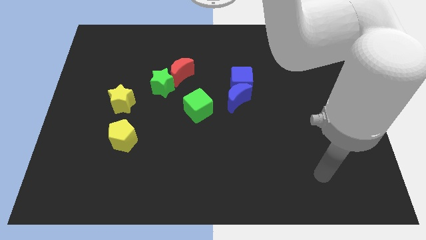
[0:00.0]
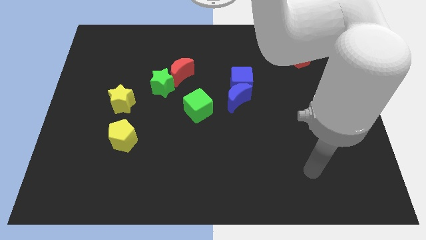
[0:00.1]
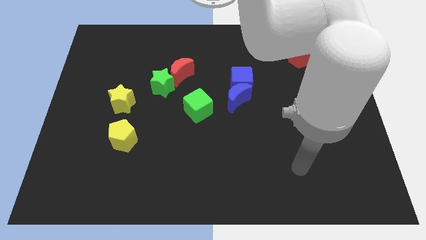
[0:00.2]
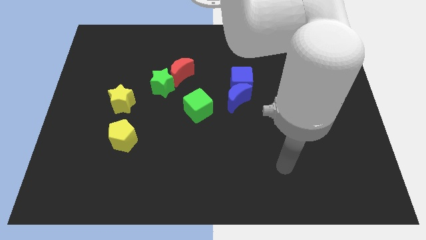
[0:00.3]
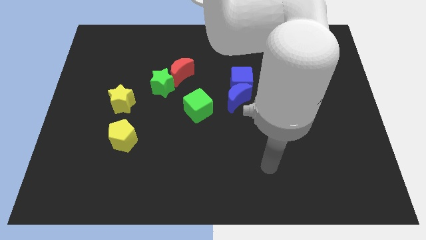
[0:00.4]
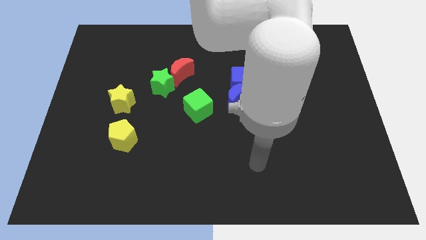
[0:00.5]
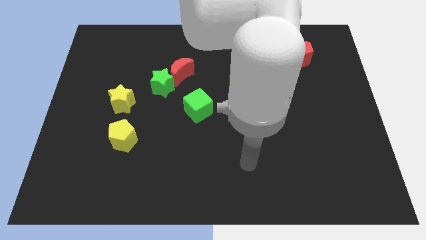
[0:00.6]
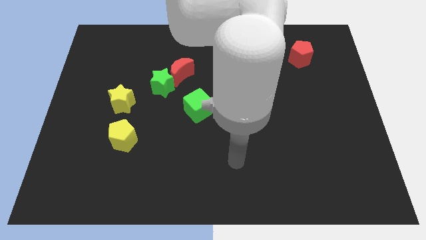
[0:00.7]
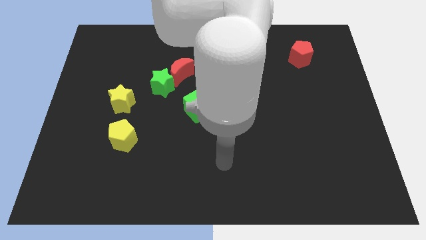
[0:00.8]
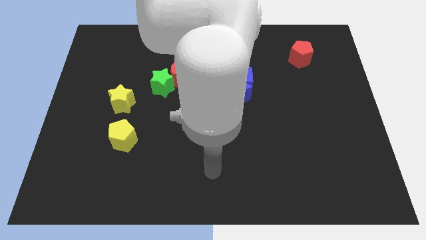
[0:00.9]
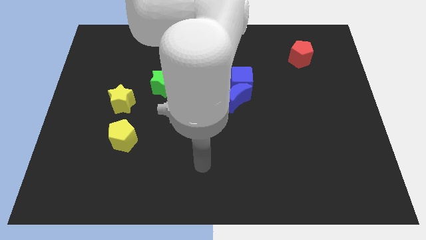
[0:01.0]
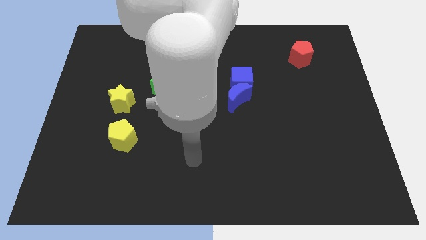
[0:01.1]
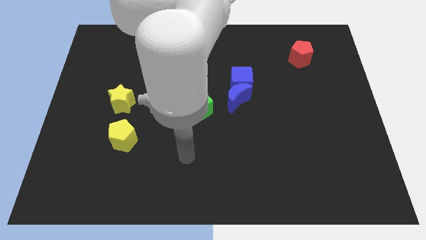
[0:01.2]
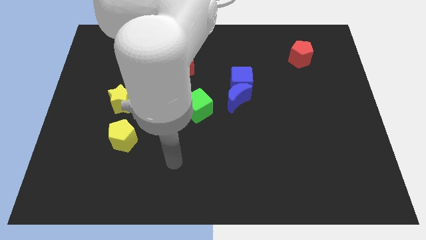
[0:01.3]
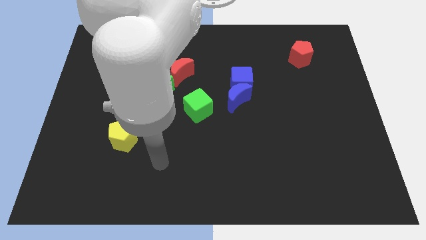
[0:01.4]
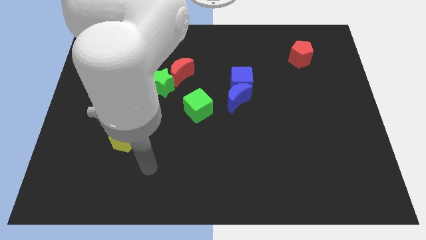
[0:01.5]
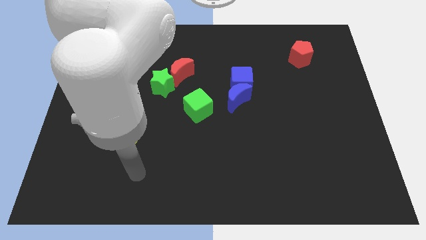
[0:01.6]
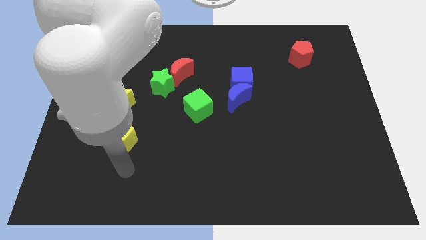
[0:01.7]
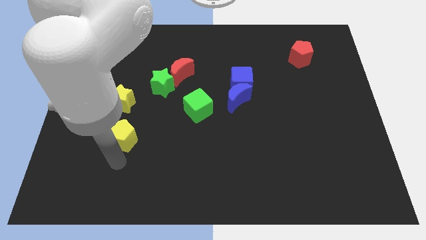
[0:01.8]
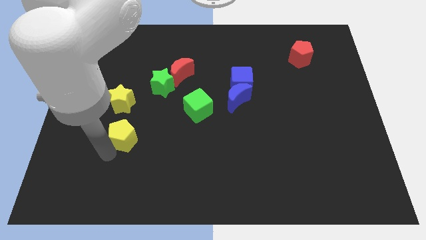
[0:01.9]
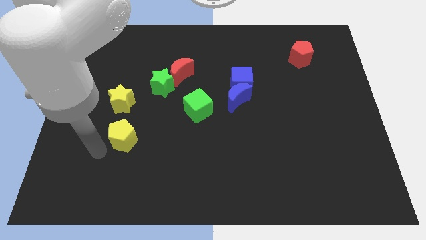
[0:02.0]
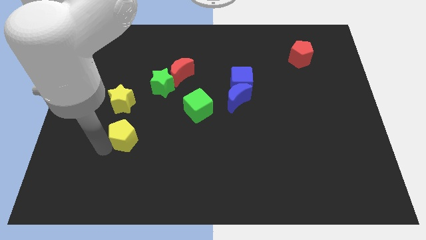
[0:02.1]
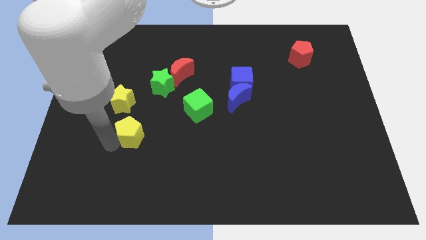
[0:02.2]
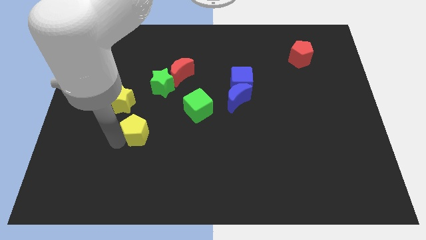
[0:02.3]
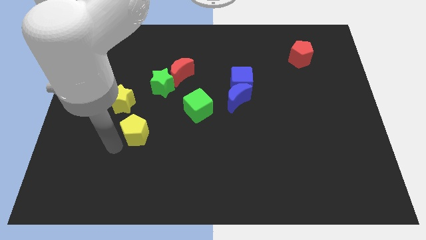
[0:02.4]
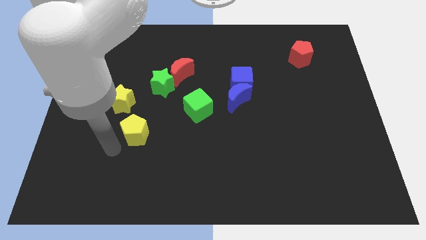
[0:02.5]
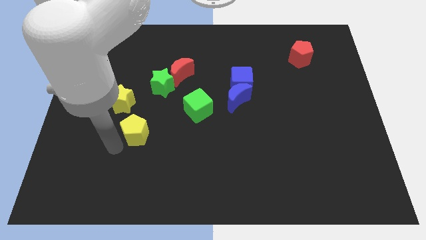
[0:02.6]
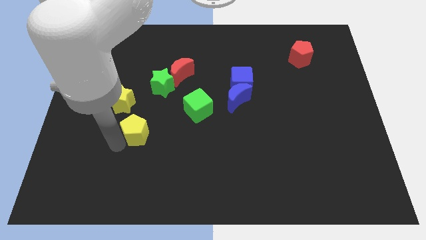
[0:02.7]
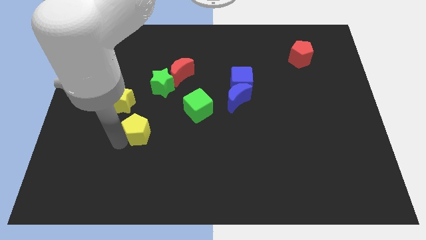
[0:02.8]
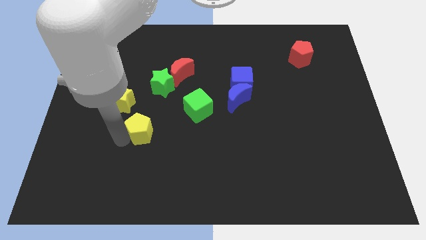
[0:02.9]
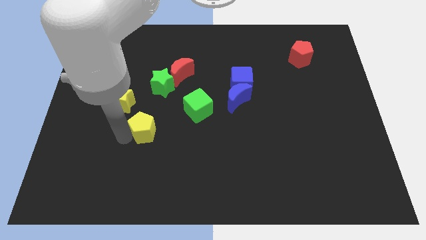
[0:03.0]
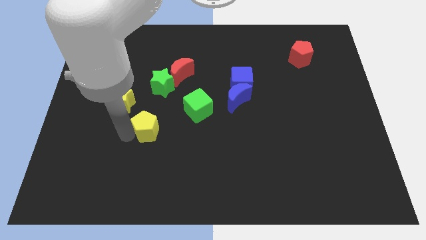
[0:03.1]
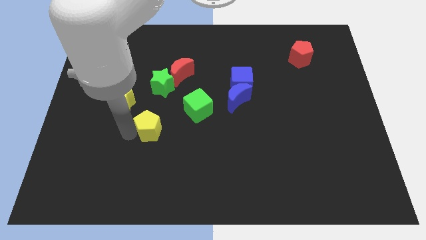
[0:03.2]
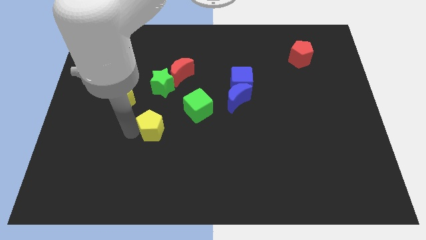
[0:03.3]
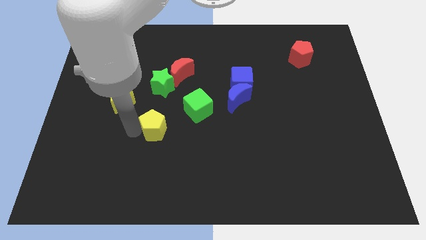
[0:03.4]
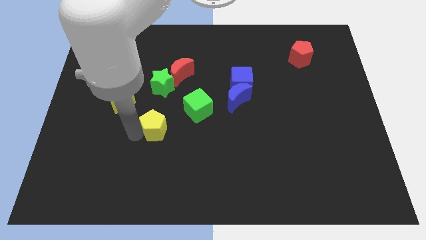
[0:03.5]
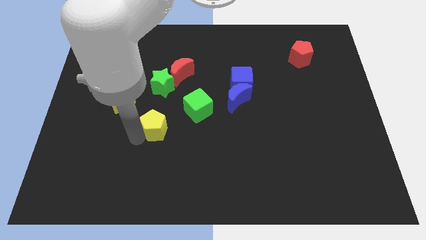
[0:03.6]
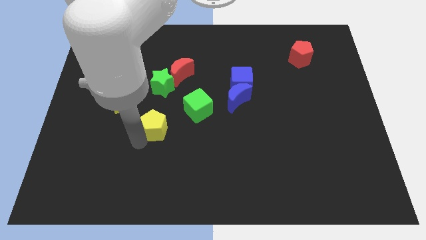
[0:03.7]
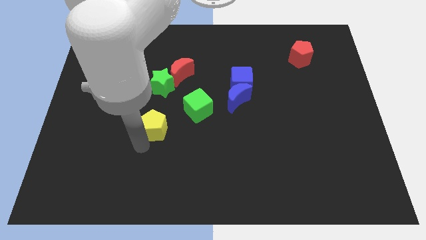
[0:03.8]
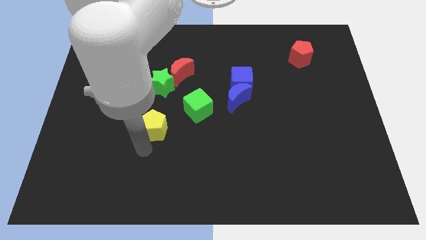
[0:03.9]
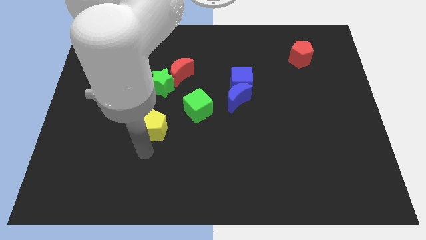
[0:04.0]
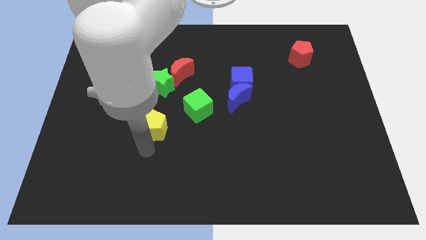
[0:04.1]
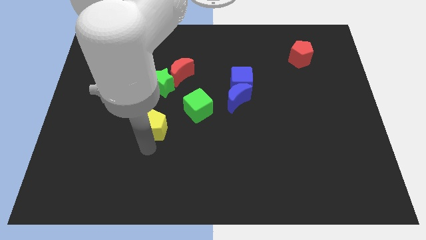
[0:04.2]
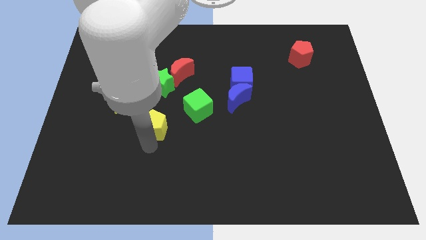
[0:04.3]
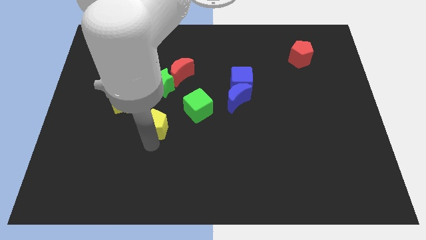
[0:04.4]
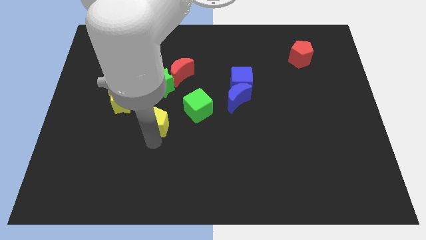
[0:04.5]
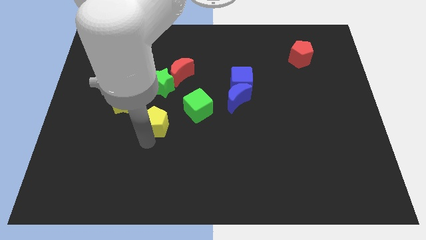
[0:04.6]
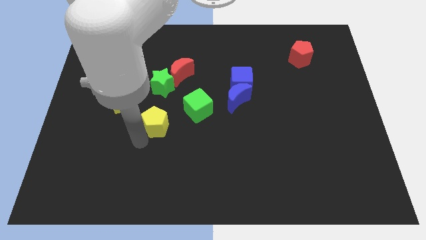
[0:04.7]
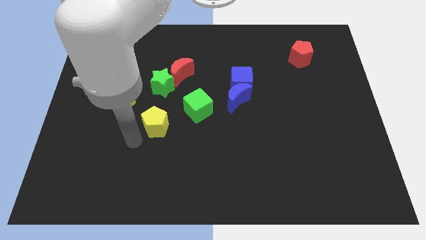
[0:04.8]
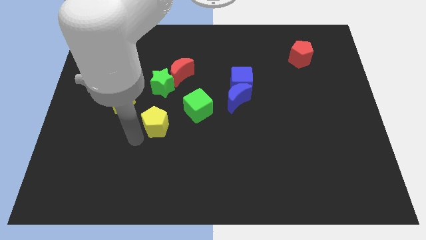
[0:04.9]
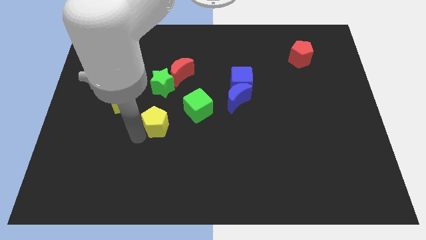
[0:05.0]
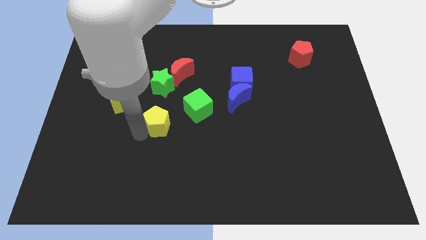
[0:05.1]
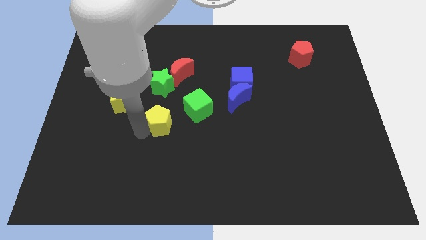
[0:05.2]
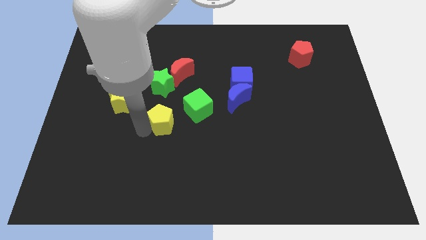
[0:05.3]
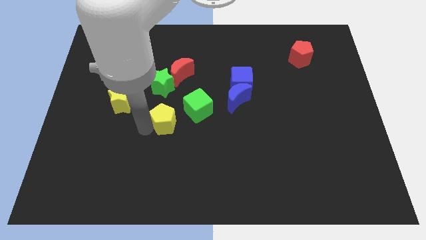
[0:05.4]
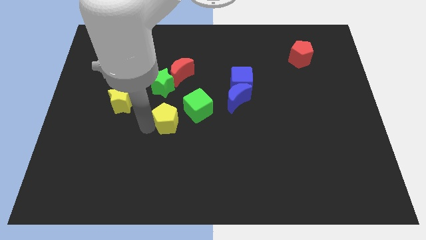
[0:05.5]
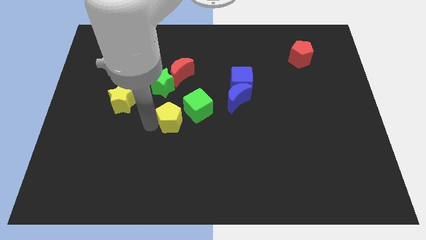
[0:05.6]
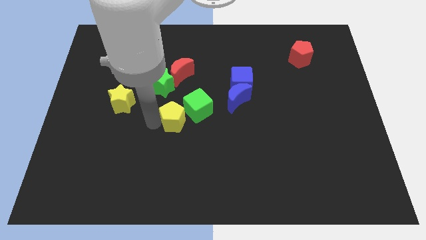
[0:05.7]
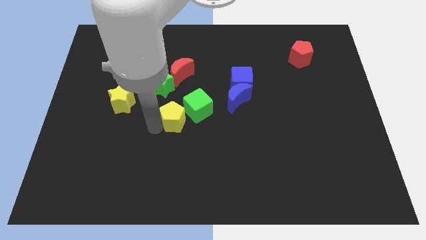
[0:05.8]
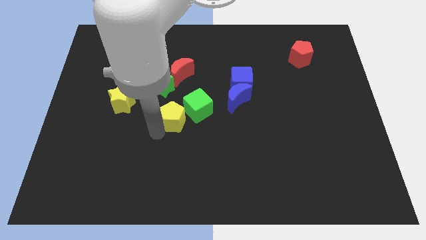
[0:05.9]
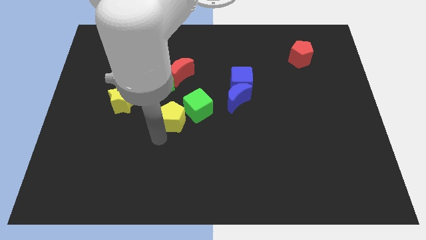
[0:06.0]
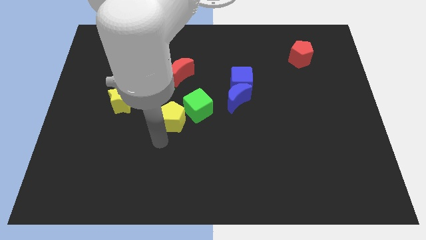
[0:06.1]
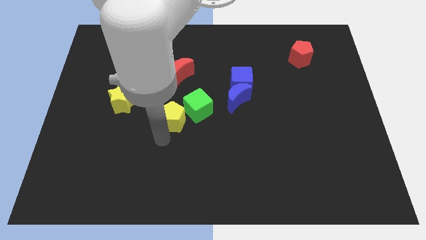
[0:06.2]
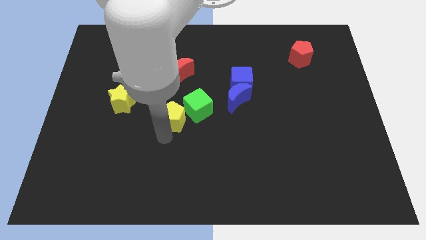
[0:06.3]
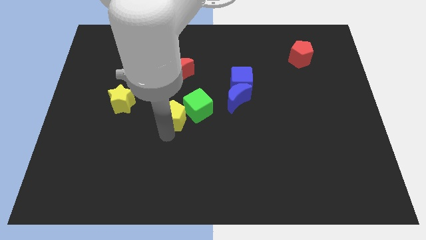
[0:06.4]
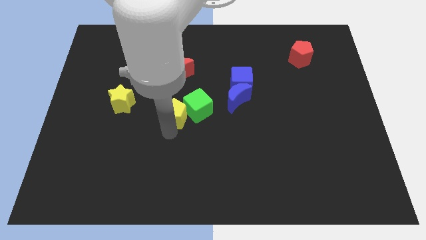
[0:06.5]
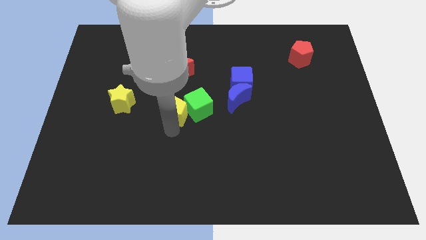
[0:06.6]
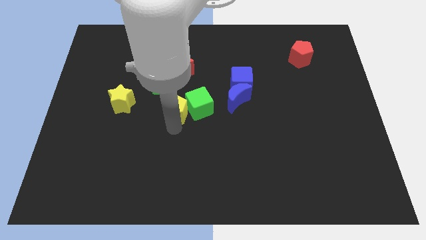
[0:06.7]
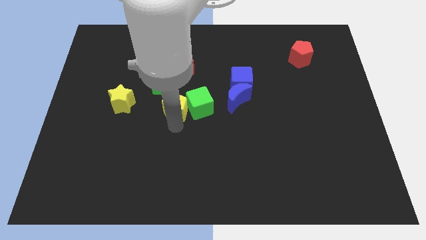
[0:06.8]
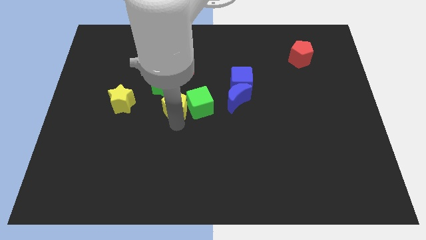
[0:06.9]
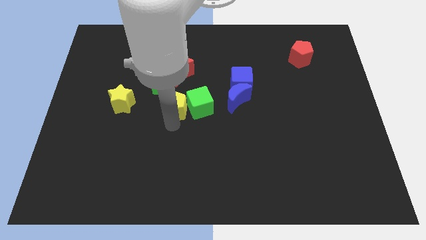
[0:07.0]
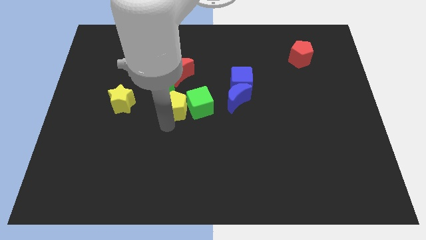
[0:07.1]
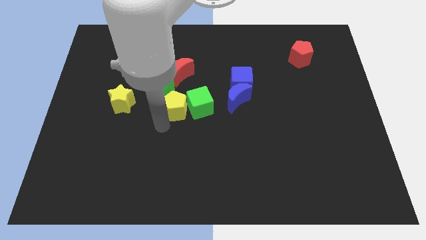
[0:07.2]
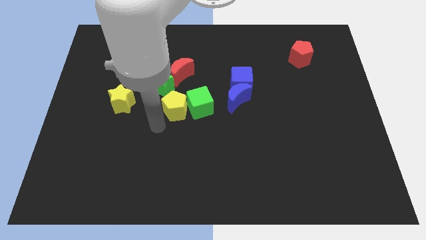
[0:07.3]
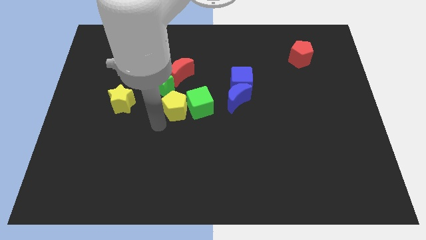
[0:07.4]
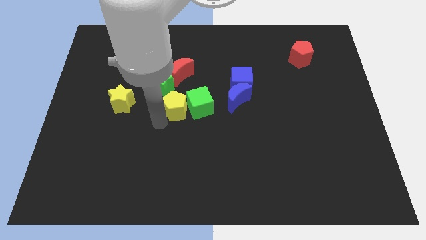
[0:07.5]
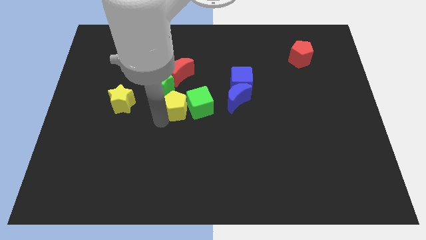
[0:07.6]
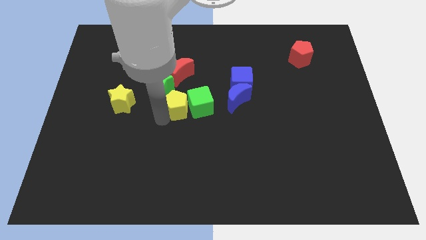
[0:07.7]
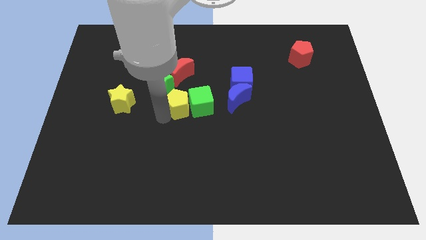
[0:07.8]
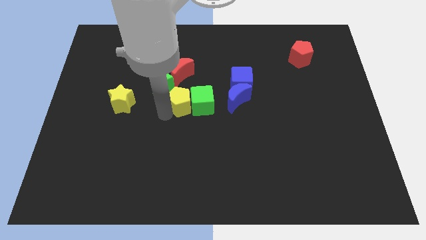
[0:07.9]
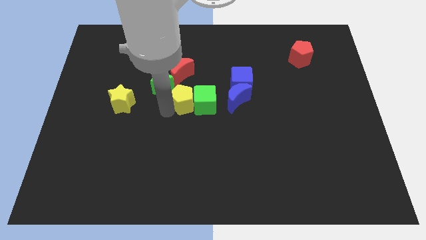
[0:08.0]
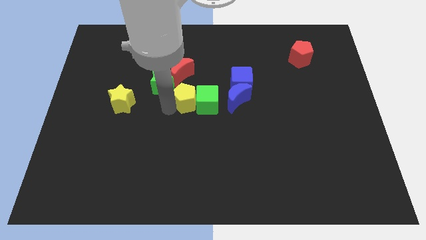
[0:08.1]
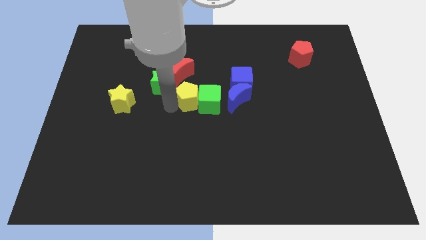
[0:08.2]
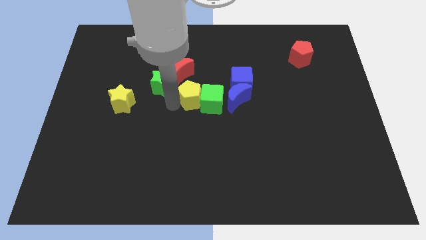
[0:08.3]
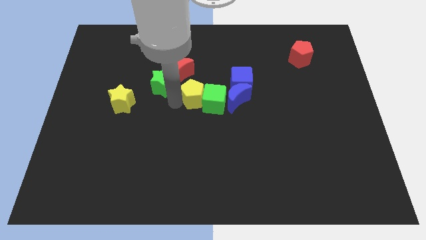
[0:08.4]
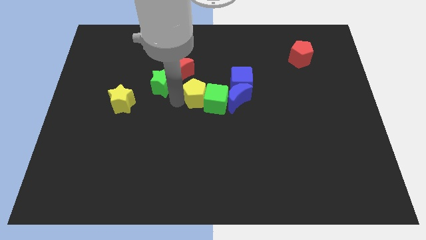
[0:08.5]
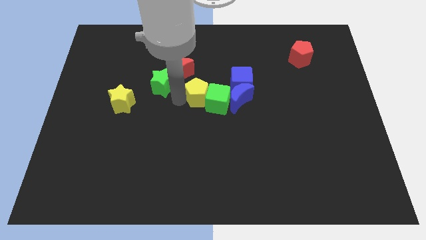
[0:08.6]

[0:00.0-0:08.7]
slide the yellow pentagon diagonally up and to the right
